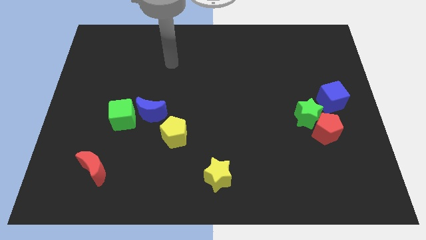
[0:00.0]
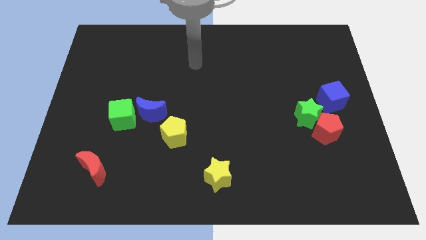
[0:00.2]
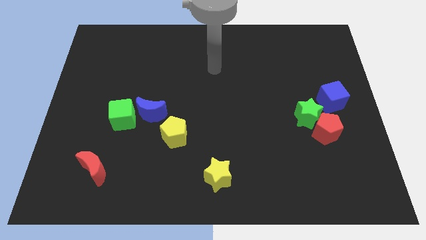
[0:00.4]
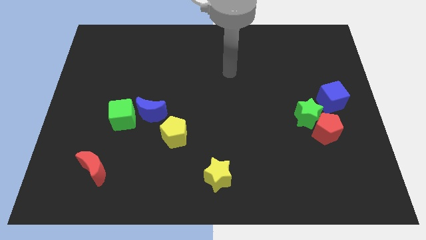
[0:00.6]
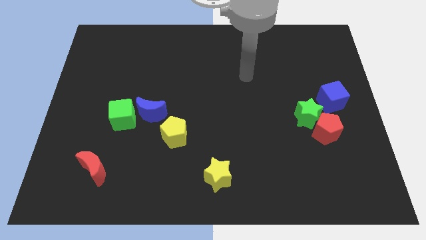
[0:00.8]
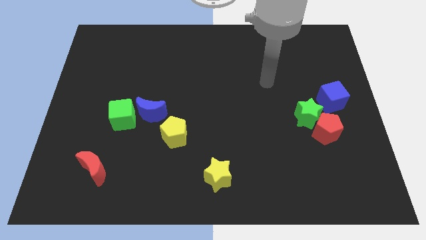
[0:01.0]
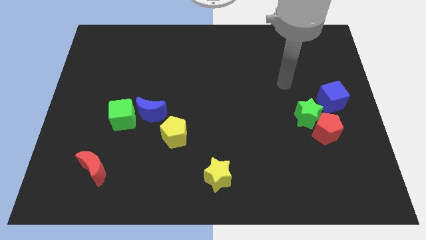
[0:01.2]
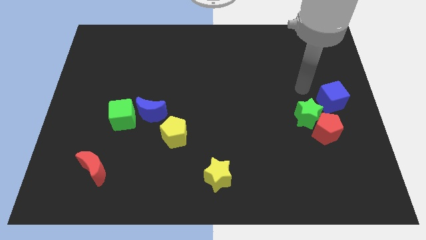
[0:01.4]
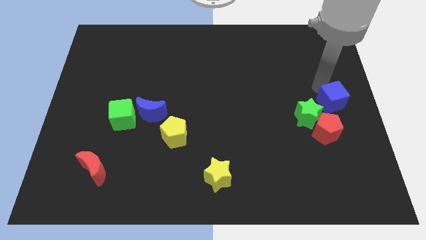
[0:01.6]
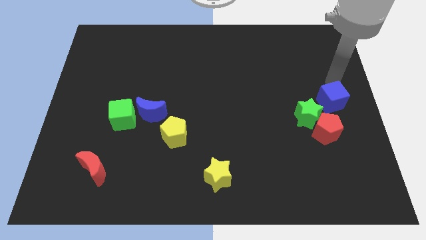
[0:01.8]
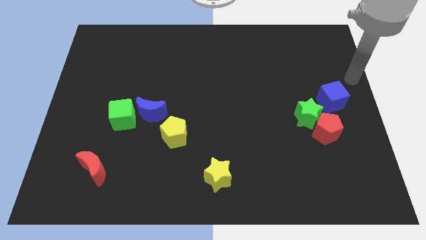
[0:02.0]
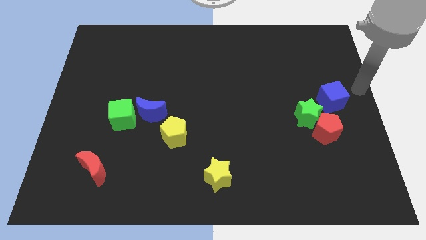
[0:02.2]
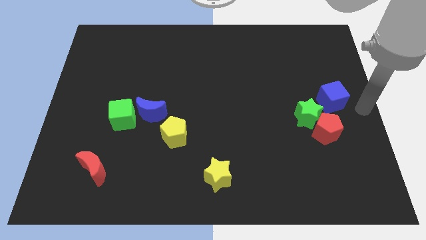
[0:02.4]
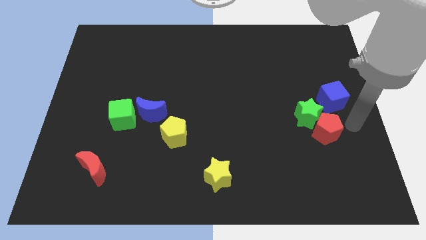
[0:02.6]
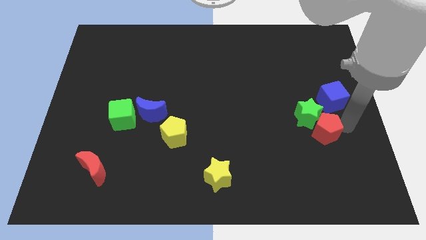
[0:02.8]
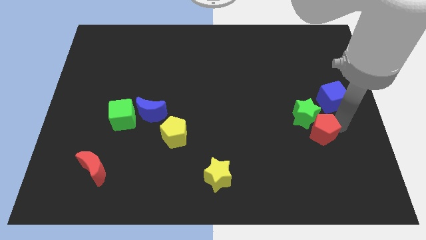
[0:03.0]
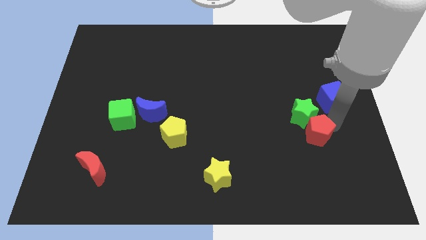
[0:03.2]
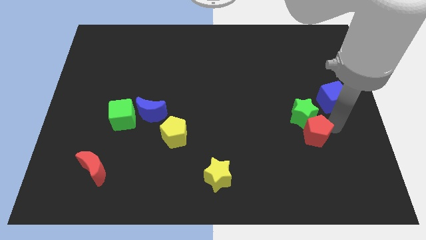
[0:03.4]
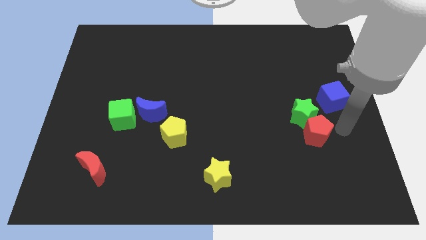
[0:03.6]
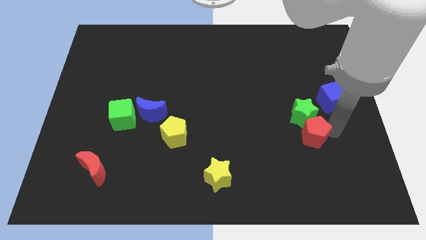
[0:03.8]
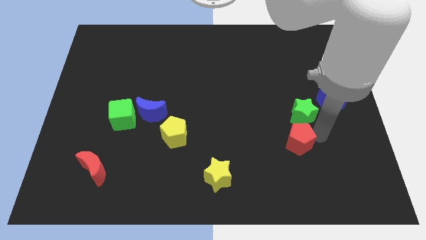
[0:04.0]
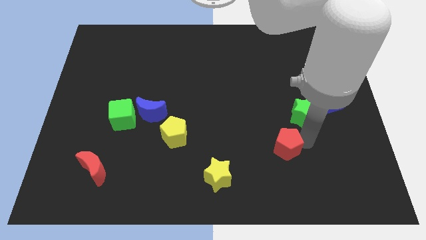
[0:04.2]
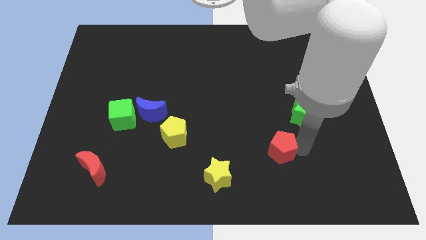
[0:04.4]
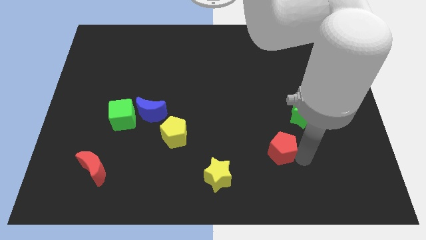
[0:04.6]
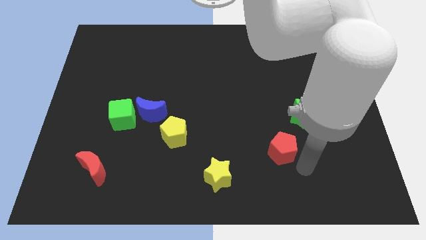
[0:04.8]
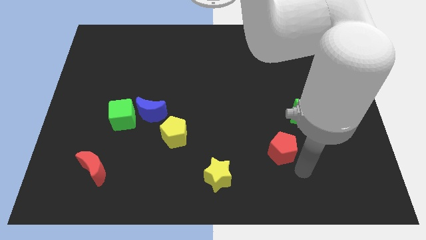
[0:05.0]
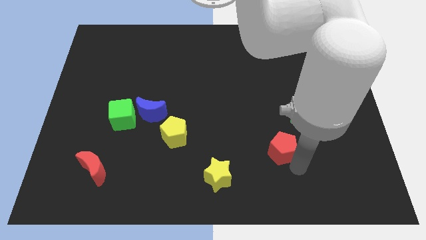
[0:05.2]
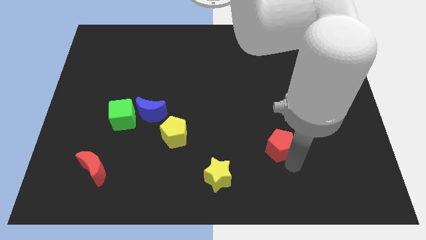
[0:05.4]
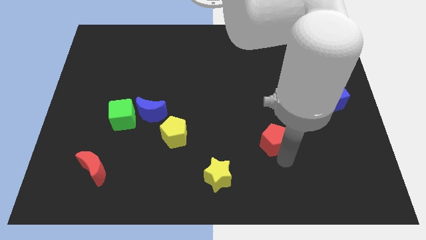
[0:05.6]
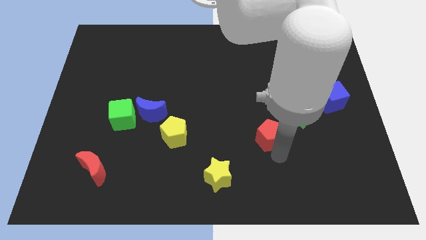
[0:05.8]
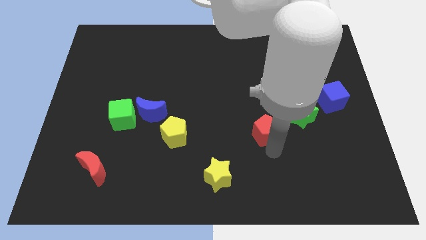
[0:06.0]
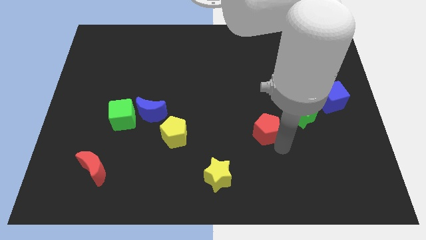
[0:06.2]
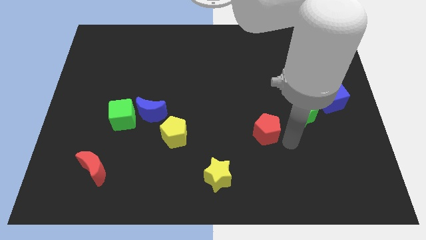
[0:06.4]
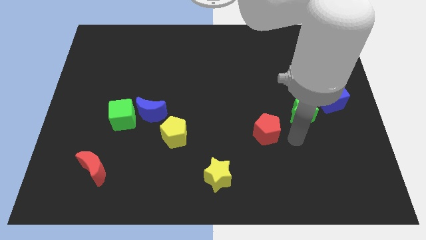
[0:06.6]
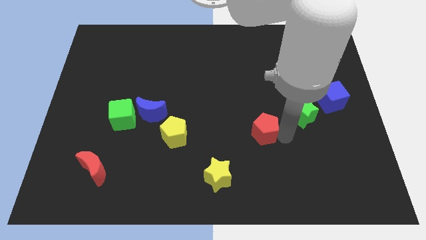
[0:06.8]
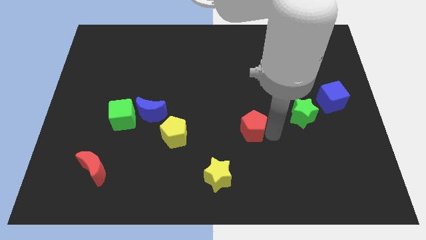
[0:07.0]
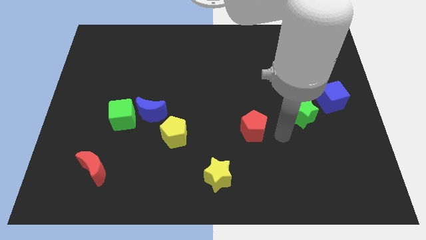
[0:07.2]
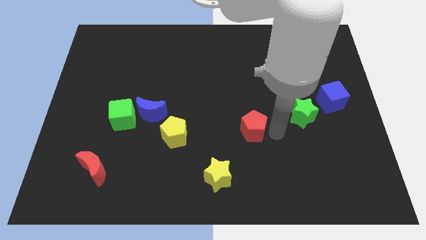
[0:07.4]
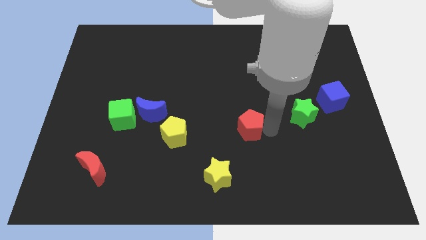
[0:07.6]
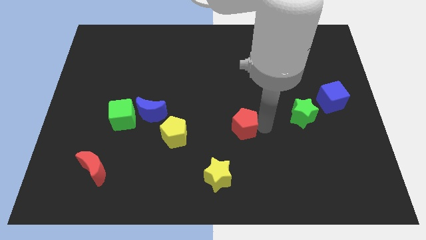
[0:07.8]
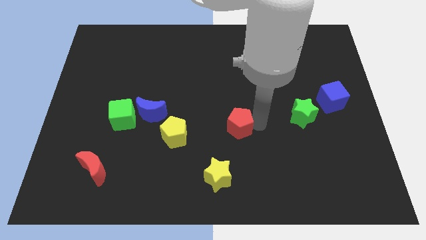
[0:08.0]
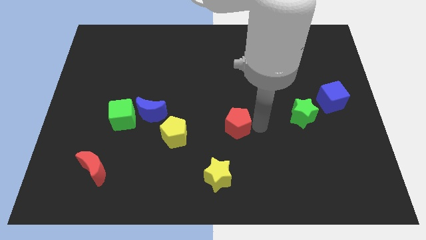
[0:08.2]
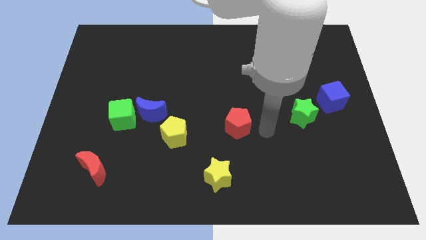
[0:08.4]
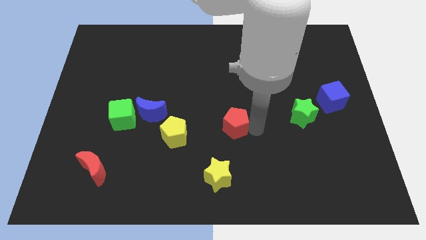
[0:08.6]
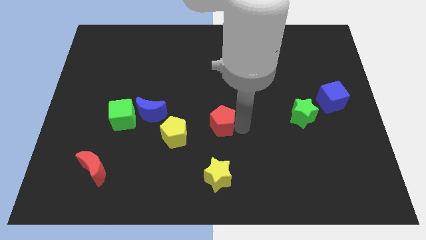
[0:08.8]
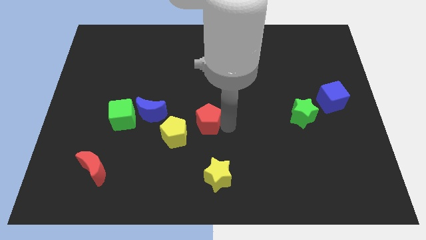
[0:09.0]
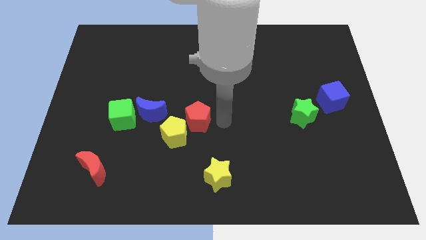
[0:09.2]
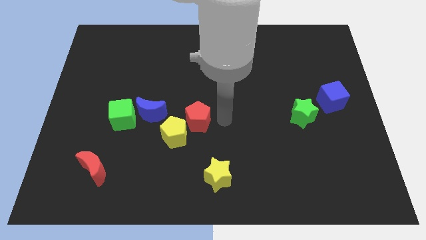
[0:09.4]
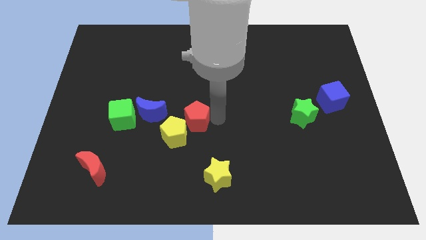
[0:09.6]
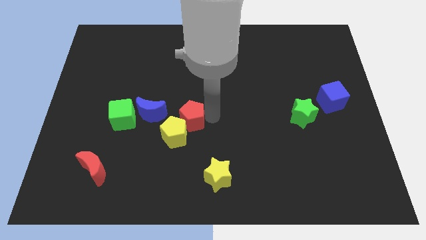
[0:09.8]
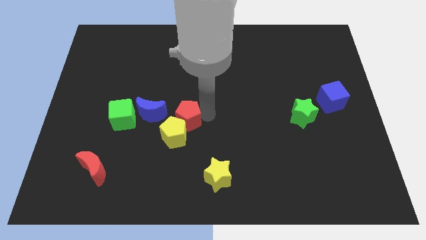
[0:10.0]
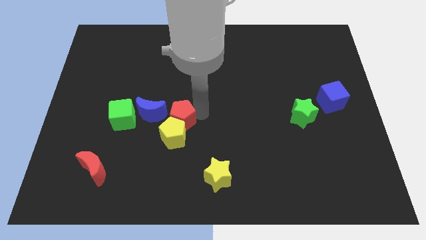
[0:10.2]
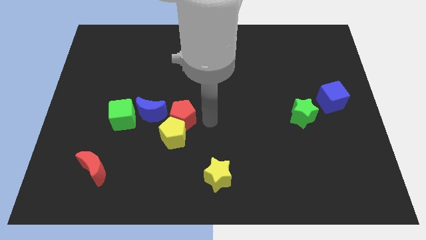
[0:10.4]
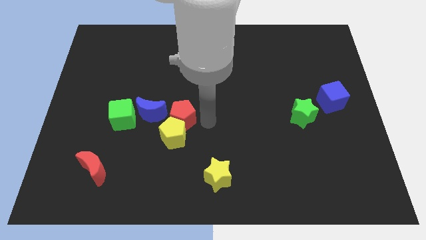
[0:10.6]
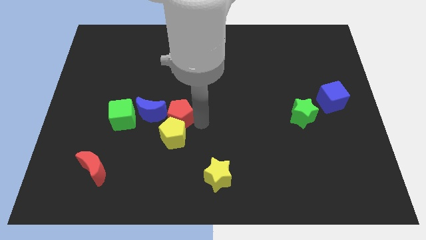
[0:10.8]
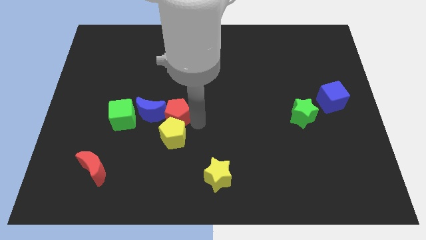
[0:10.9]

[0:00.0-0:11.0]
slide the red pentagon close to the blue moon

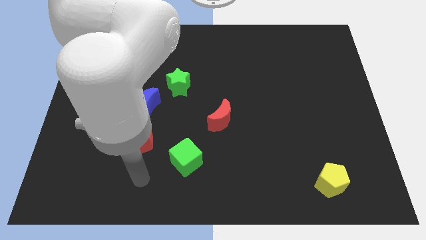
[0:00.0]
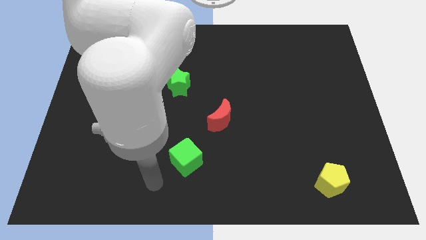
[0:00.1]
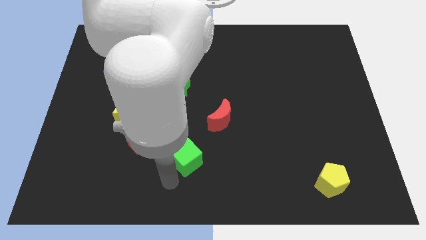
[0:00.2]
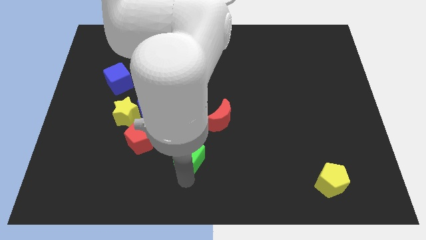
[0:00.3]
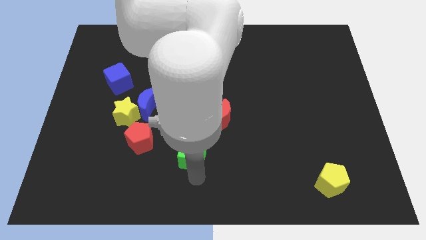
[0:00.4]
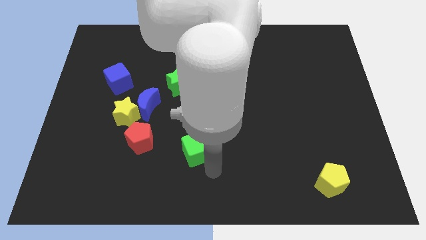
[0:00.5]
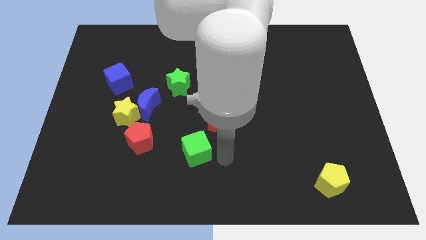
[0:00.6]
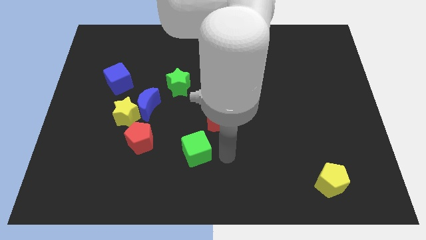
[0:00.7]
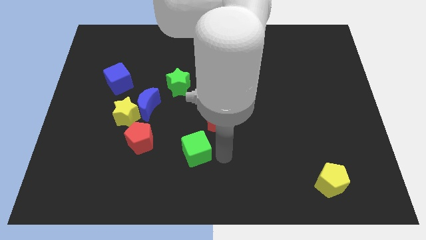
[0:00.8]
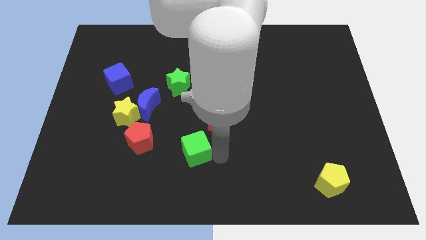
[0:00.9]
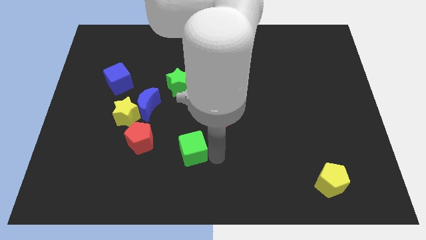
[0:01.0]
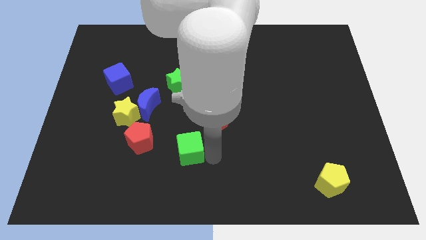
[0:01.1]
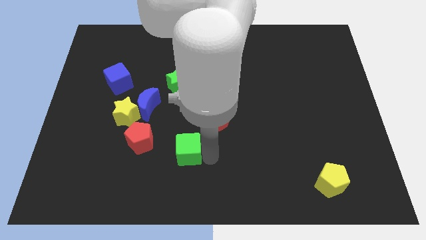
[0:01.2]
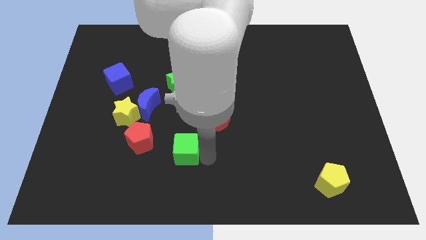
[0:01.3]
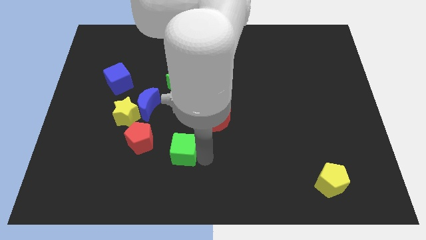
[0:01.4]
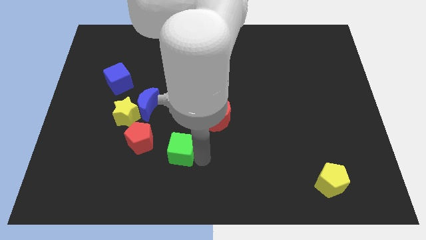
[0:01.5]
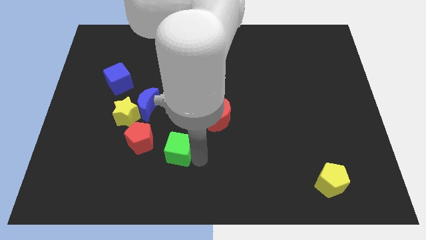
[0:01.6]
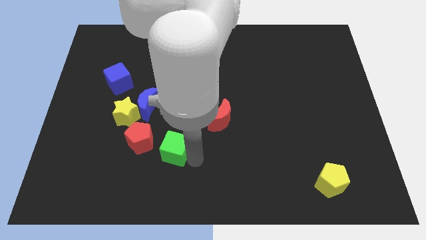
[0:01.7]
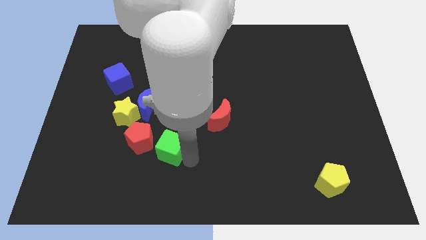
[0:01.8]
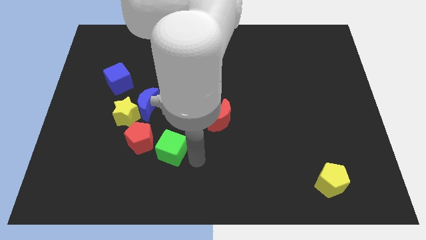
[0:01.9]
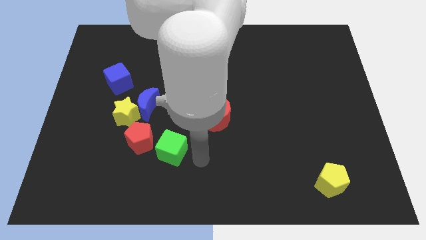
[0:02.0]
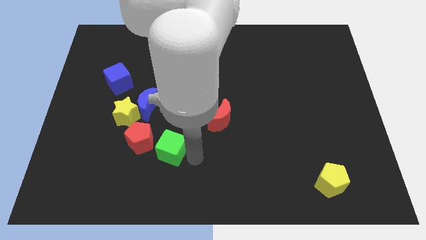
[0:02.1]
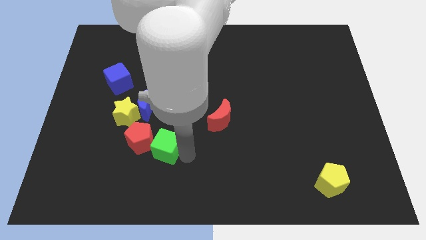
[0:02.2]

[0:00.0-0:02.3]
slide the green cube next to the red pentagon
